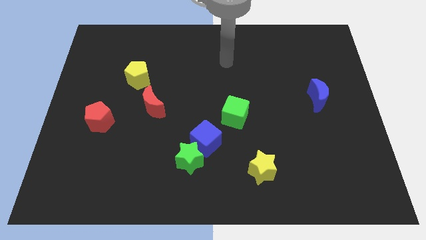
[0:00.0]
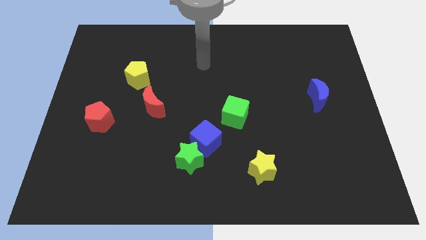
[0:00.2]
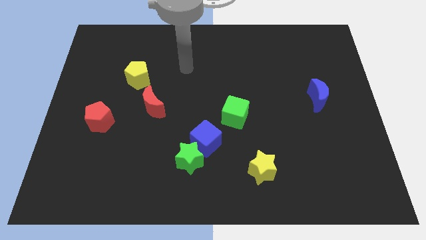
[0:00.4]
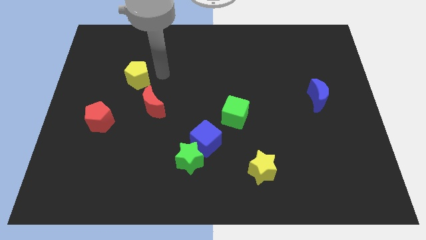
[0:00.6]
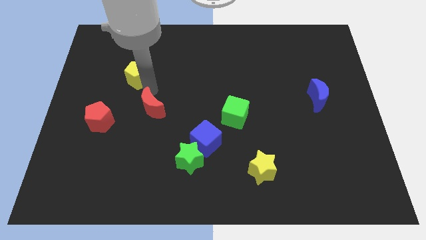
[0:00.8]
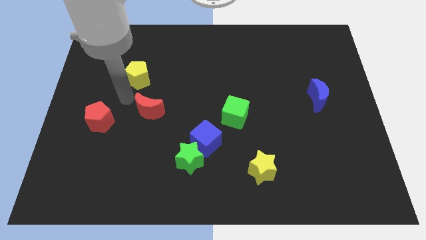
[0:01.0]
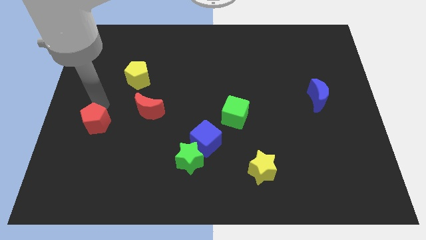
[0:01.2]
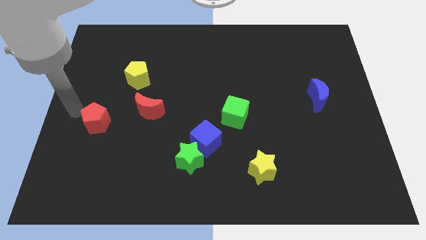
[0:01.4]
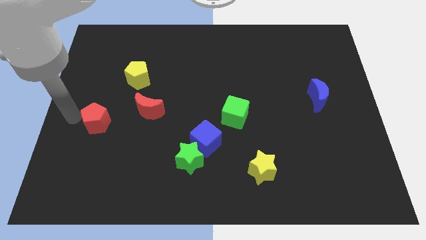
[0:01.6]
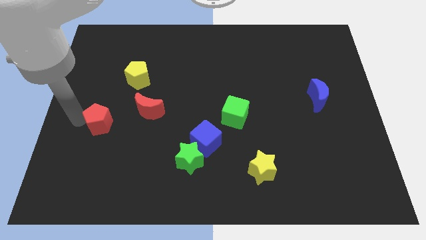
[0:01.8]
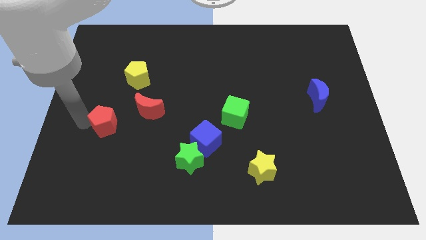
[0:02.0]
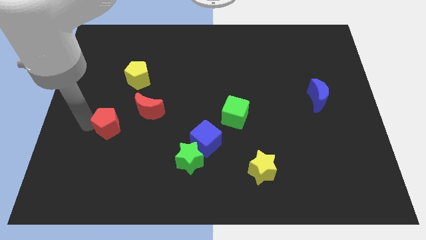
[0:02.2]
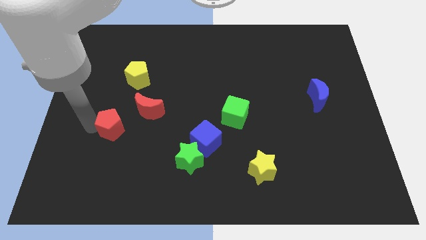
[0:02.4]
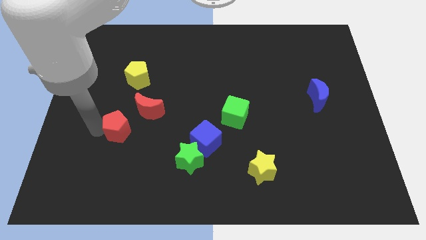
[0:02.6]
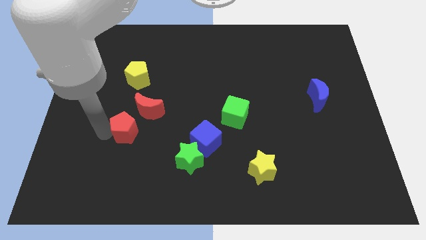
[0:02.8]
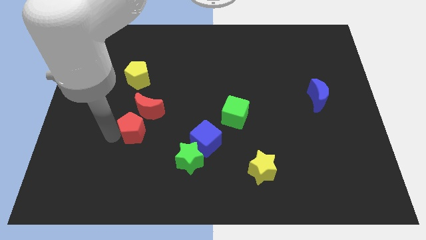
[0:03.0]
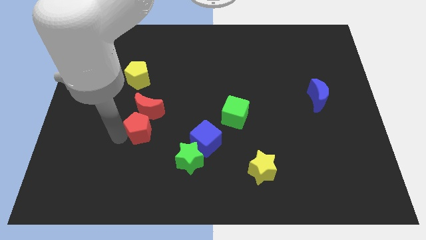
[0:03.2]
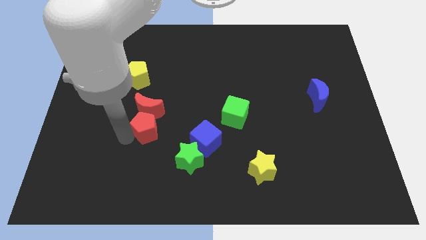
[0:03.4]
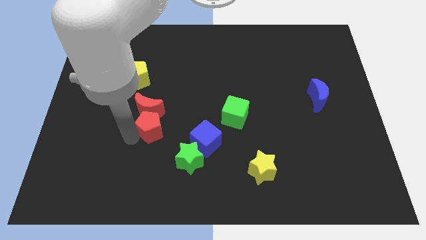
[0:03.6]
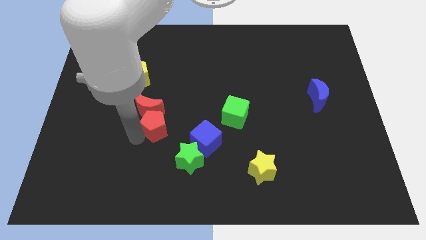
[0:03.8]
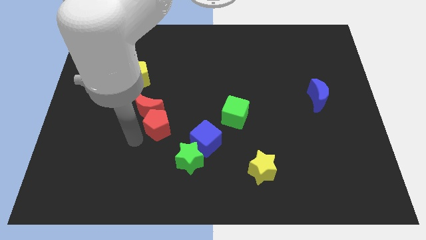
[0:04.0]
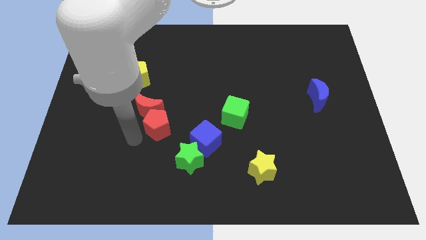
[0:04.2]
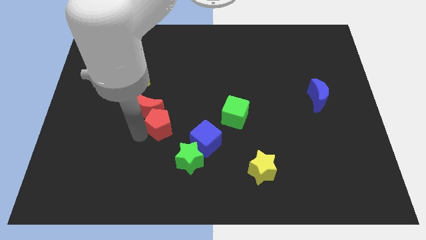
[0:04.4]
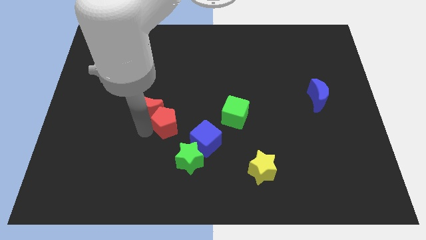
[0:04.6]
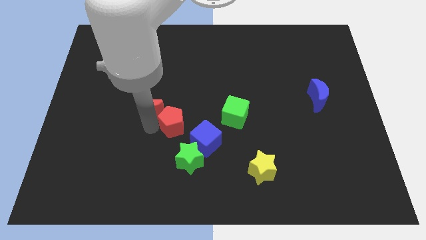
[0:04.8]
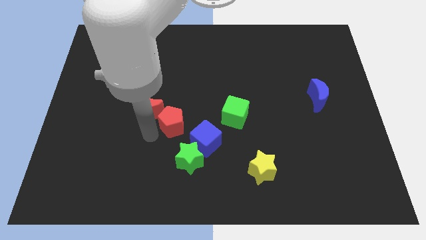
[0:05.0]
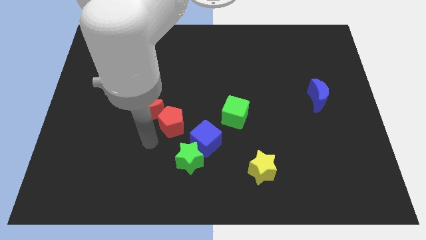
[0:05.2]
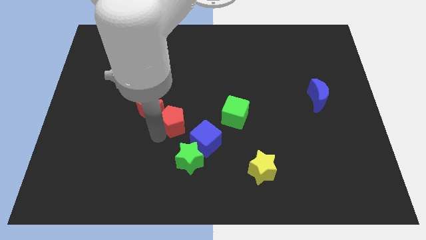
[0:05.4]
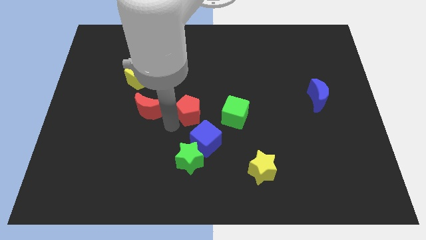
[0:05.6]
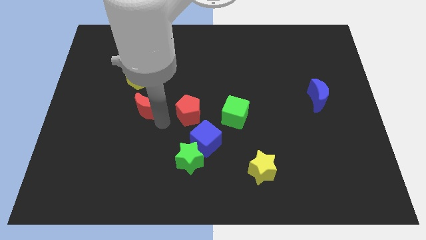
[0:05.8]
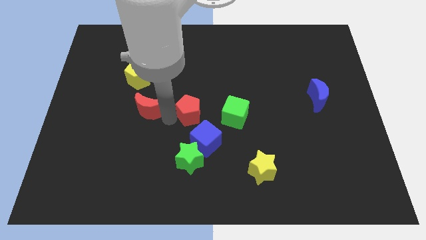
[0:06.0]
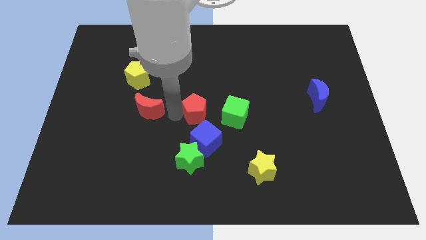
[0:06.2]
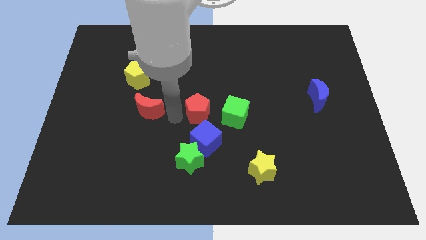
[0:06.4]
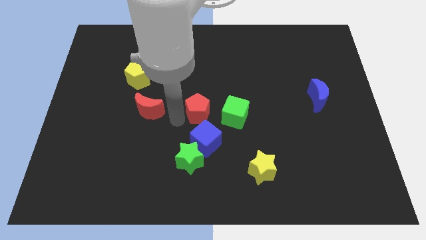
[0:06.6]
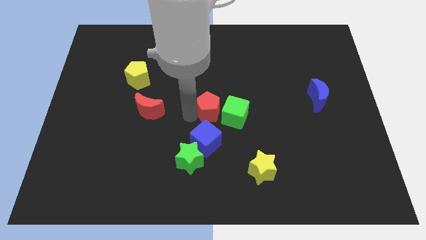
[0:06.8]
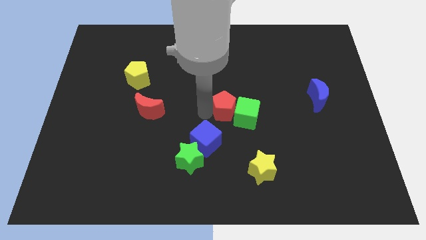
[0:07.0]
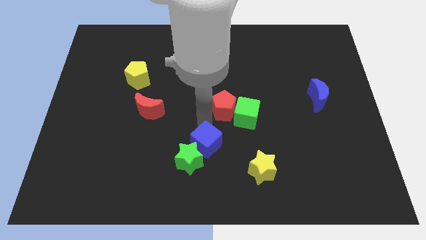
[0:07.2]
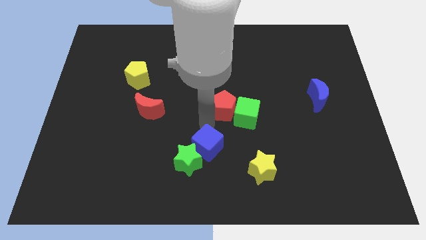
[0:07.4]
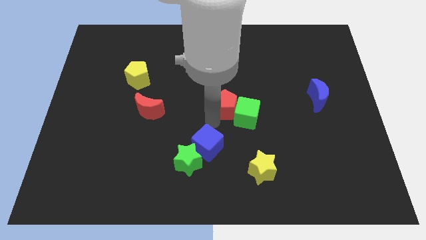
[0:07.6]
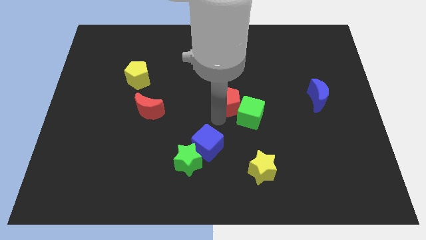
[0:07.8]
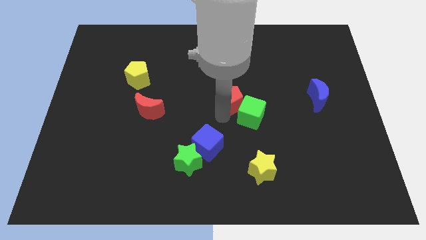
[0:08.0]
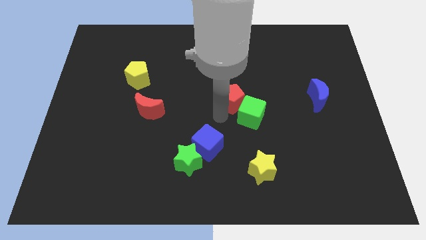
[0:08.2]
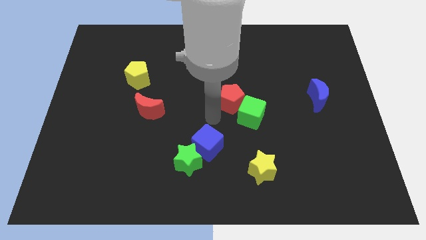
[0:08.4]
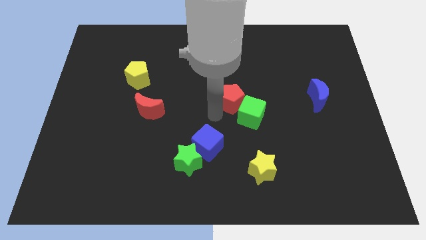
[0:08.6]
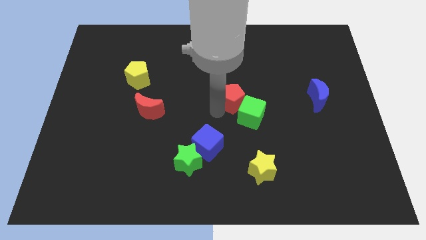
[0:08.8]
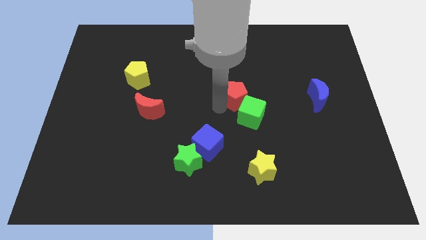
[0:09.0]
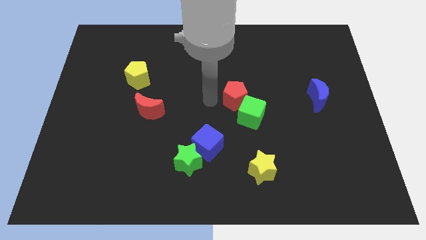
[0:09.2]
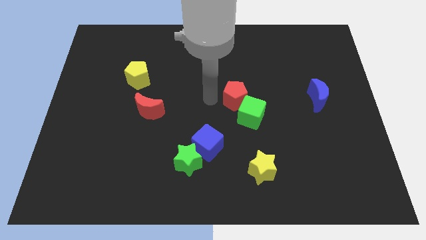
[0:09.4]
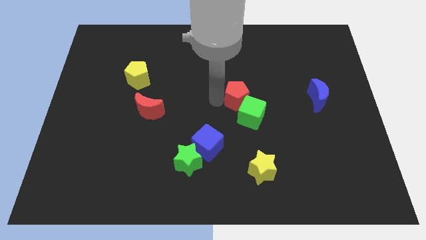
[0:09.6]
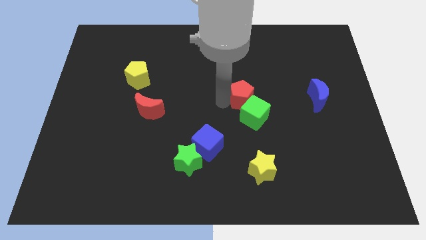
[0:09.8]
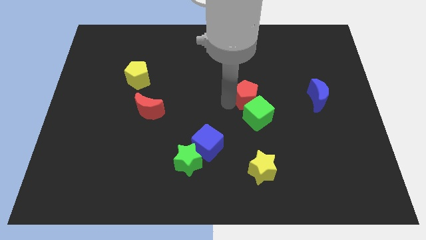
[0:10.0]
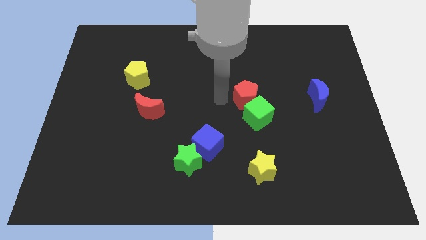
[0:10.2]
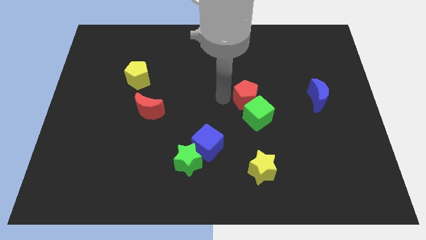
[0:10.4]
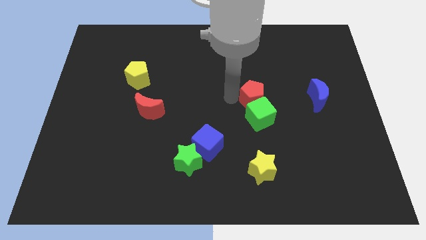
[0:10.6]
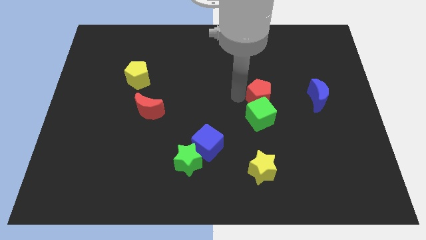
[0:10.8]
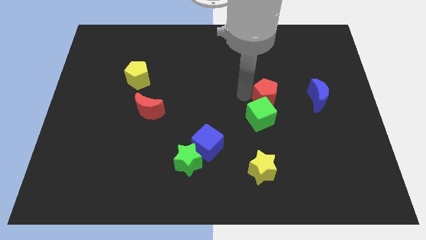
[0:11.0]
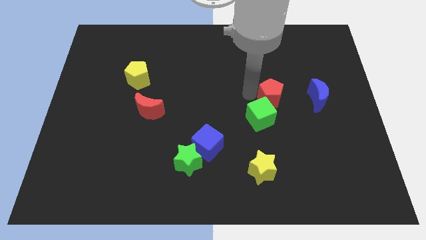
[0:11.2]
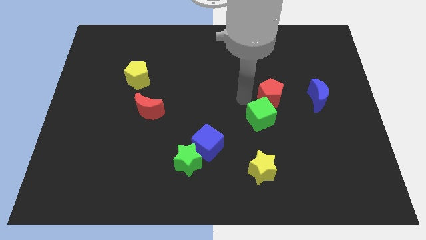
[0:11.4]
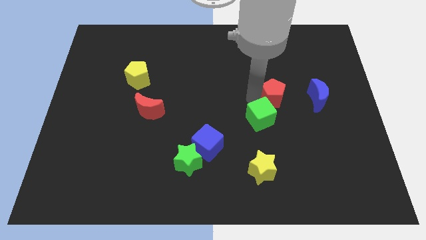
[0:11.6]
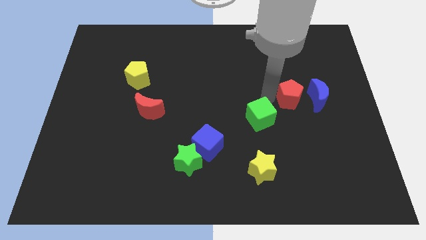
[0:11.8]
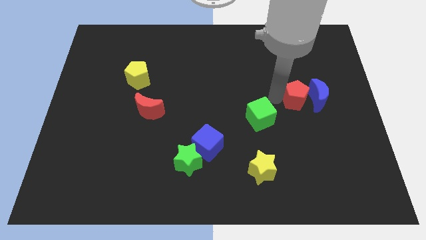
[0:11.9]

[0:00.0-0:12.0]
slide the red pentagon close to the blue moon
